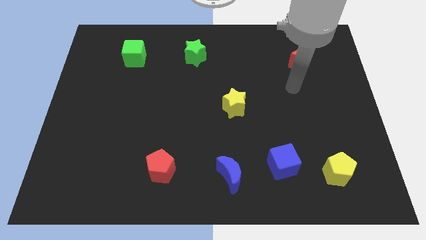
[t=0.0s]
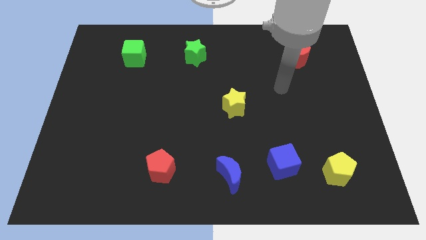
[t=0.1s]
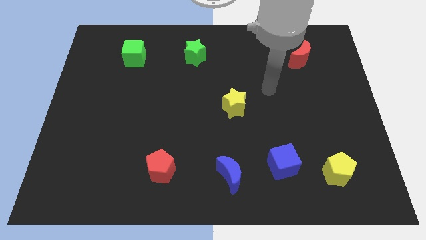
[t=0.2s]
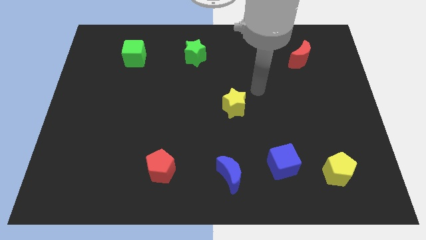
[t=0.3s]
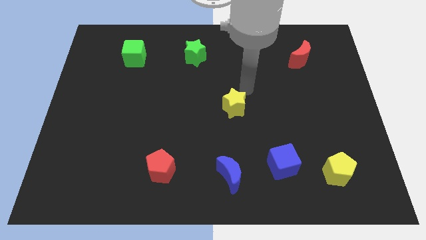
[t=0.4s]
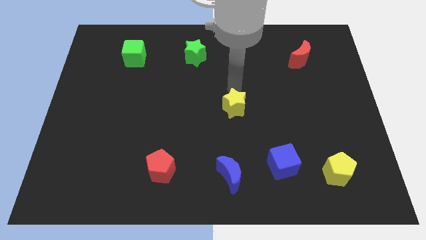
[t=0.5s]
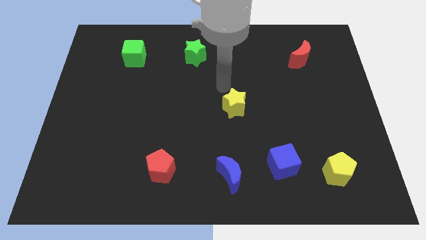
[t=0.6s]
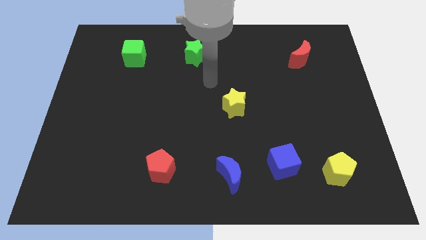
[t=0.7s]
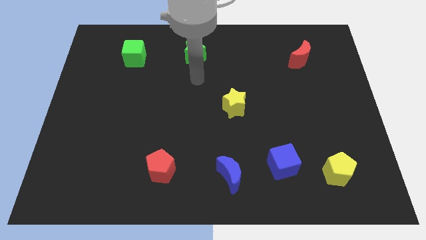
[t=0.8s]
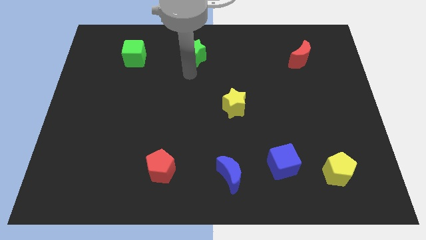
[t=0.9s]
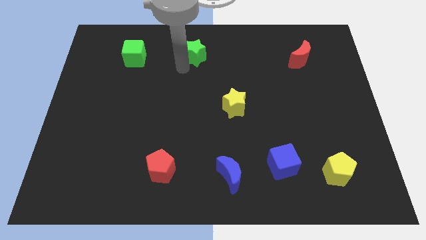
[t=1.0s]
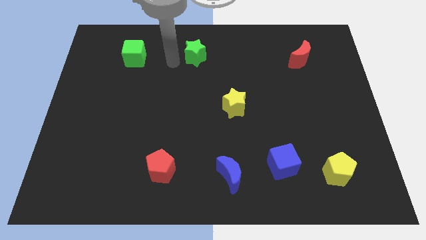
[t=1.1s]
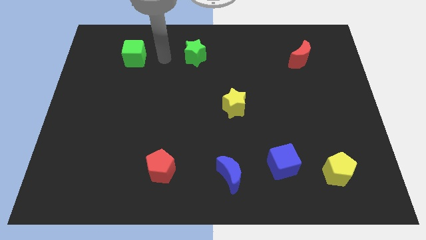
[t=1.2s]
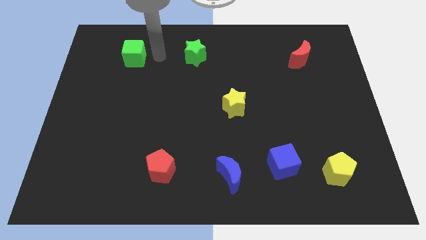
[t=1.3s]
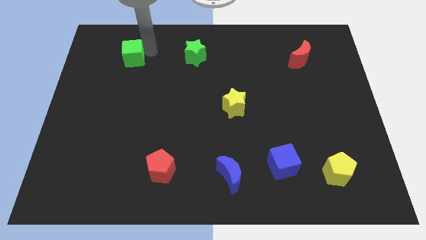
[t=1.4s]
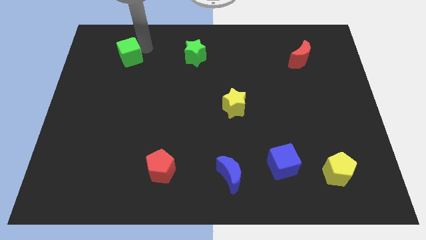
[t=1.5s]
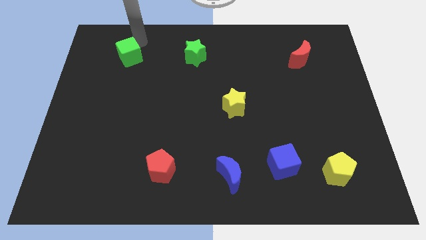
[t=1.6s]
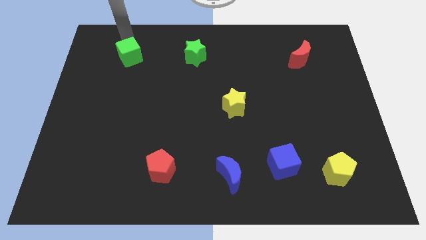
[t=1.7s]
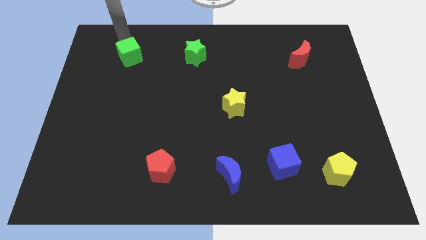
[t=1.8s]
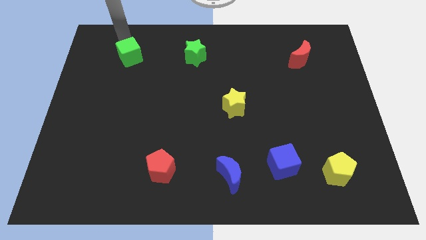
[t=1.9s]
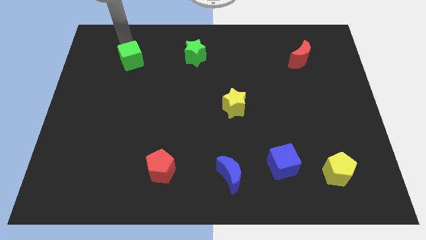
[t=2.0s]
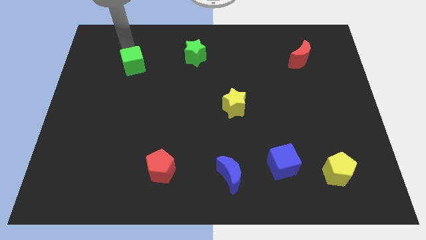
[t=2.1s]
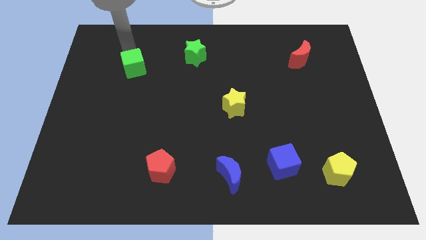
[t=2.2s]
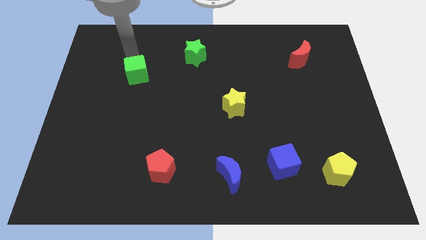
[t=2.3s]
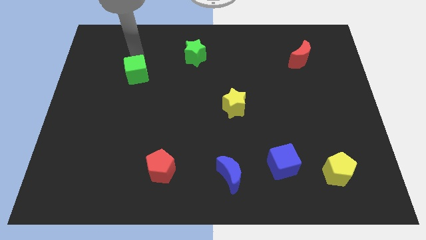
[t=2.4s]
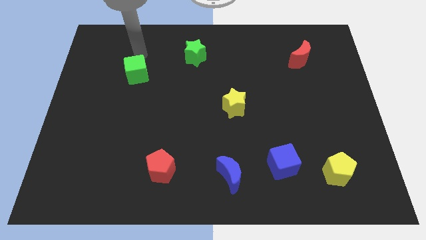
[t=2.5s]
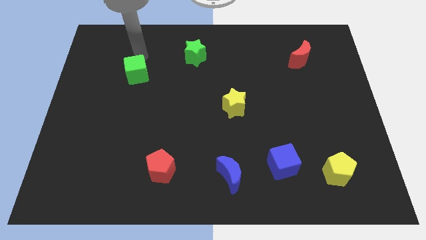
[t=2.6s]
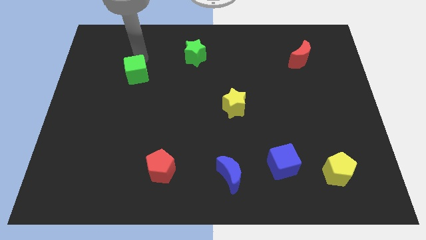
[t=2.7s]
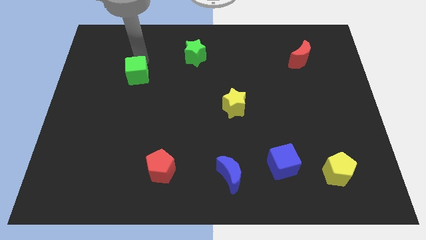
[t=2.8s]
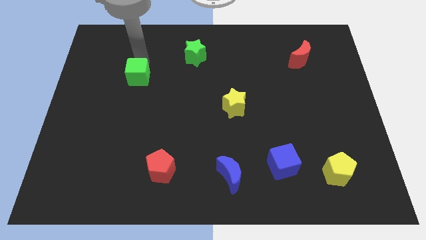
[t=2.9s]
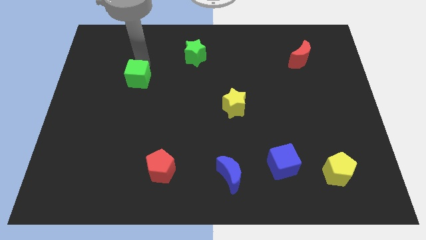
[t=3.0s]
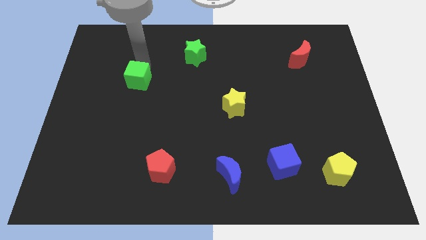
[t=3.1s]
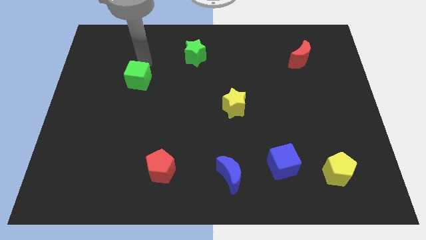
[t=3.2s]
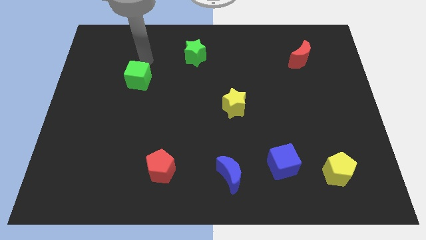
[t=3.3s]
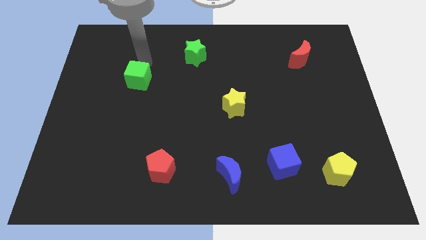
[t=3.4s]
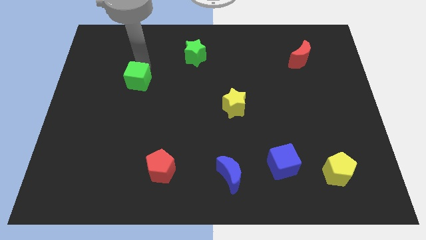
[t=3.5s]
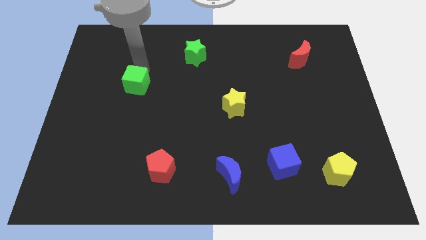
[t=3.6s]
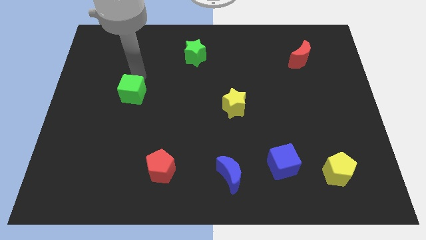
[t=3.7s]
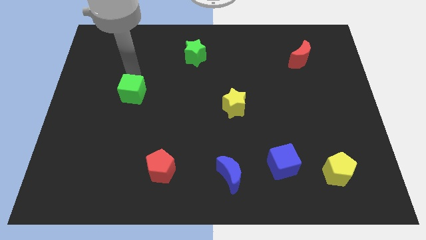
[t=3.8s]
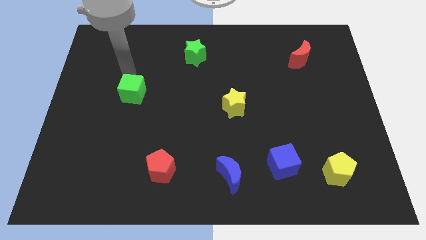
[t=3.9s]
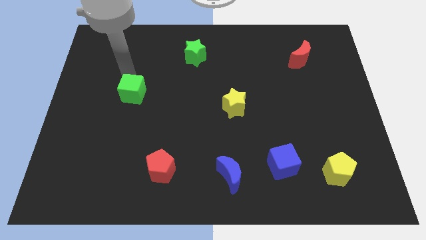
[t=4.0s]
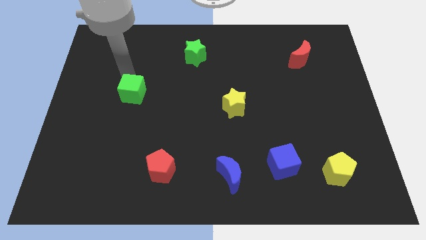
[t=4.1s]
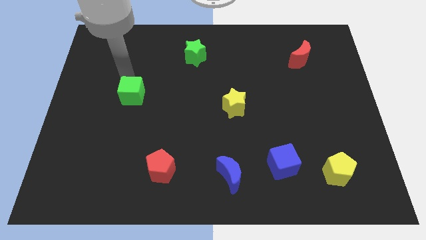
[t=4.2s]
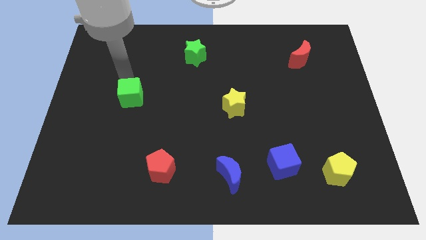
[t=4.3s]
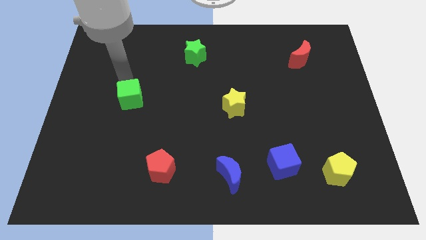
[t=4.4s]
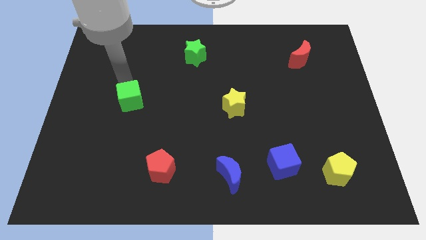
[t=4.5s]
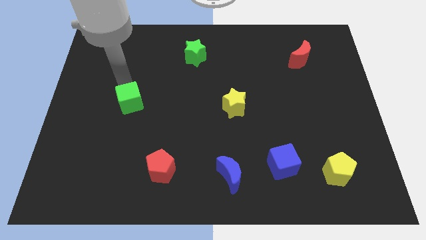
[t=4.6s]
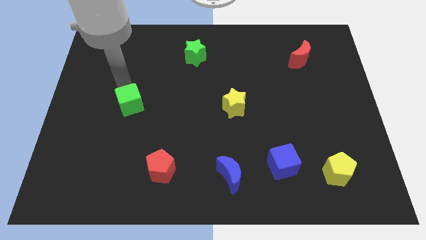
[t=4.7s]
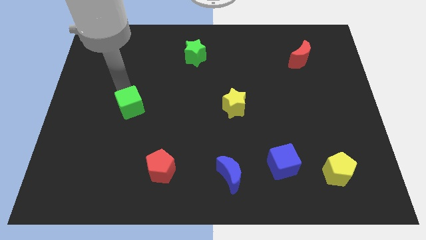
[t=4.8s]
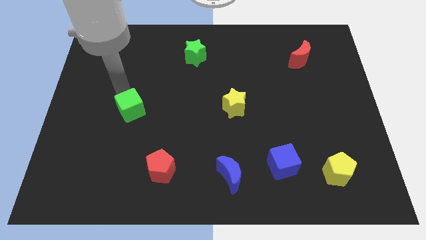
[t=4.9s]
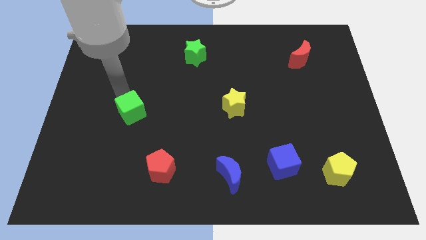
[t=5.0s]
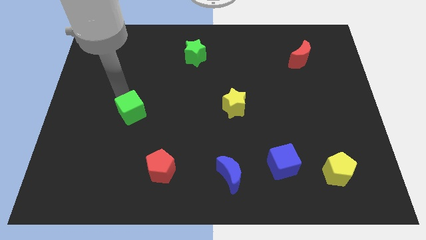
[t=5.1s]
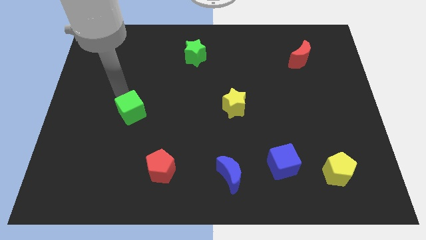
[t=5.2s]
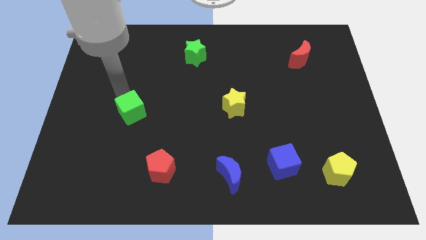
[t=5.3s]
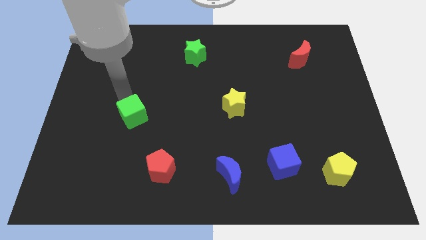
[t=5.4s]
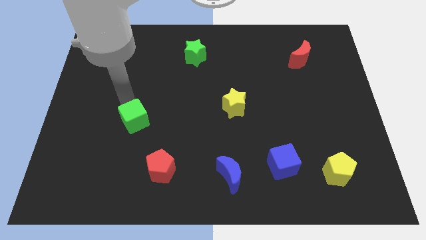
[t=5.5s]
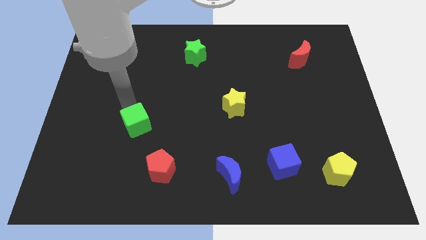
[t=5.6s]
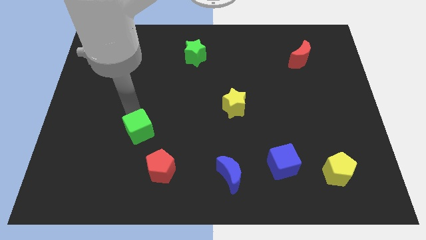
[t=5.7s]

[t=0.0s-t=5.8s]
put the green cube to the top left of the red pentagon

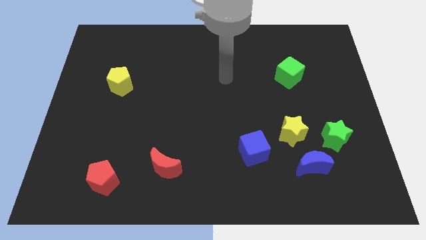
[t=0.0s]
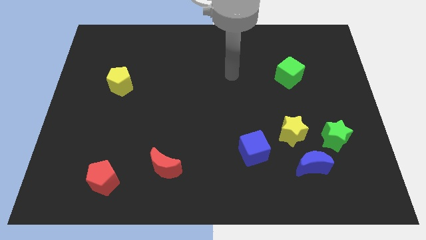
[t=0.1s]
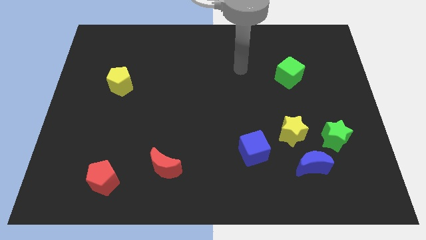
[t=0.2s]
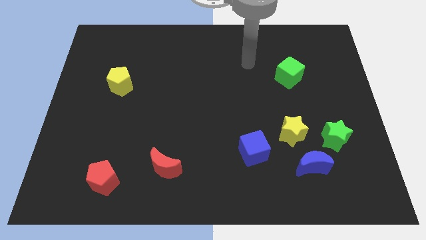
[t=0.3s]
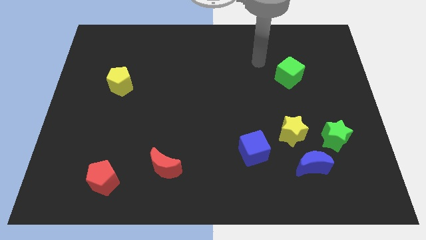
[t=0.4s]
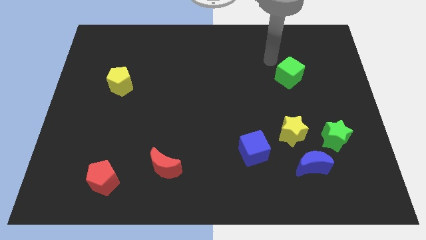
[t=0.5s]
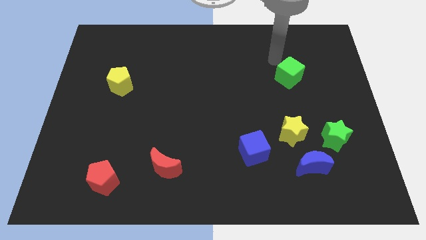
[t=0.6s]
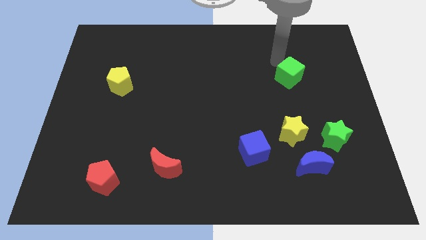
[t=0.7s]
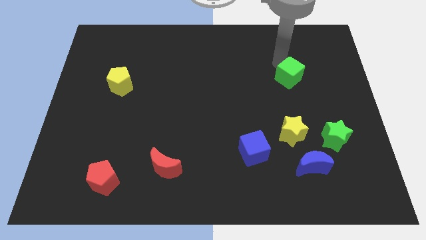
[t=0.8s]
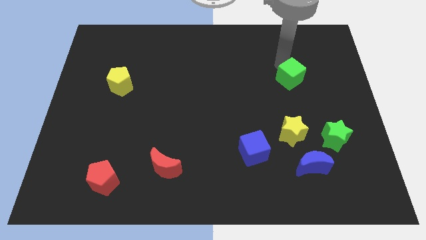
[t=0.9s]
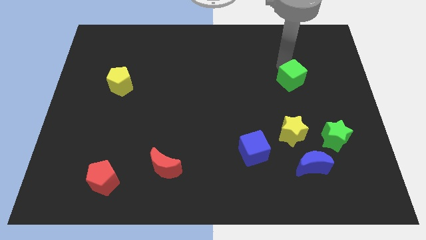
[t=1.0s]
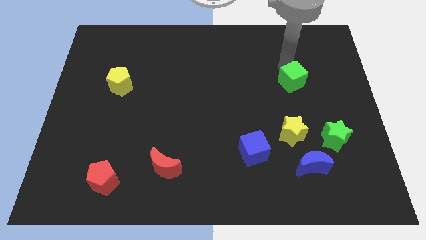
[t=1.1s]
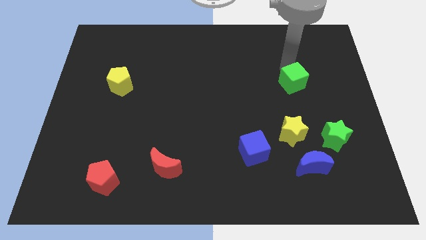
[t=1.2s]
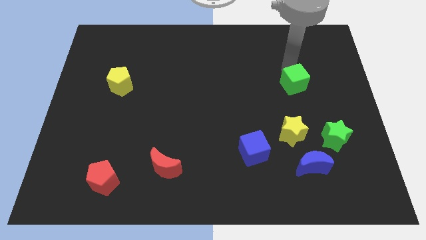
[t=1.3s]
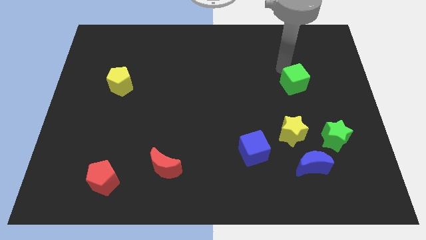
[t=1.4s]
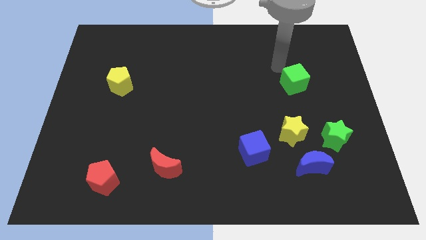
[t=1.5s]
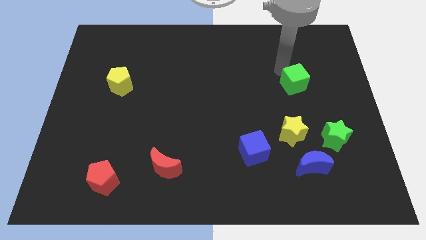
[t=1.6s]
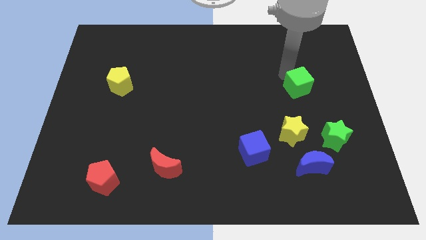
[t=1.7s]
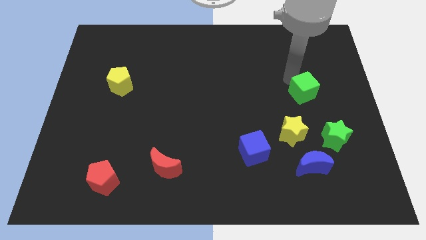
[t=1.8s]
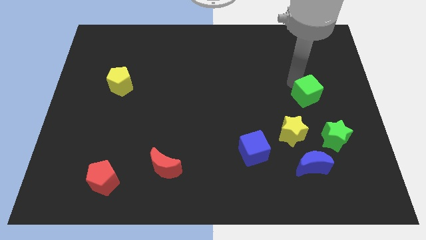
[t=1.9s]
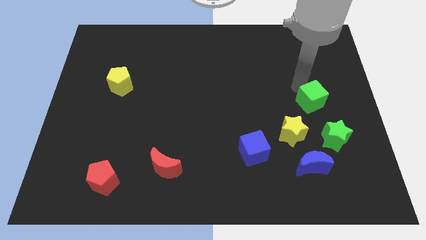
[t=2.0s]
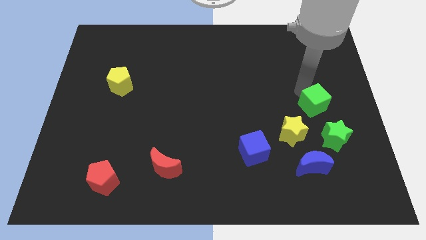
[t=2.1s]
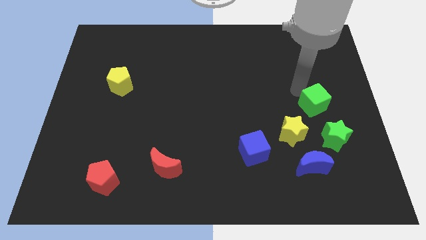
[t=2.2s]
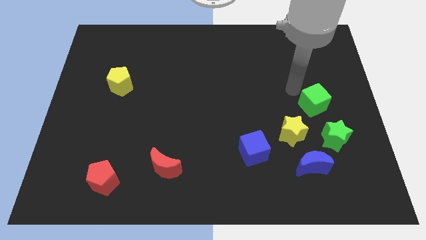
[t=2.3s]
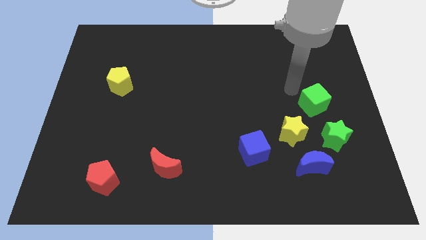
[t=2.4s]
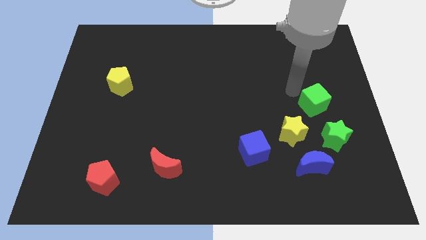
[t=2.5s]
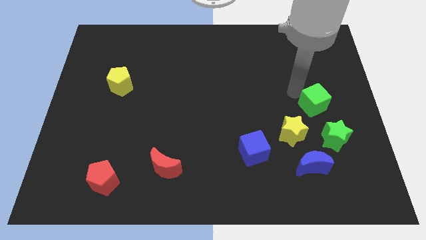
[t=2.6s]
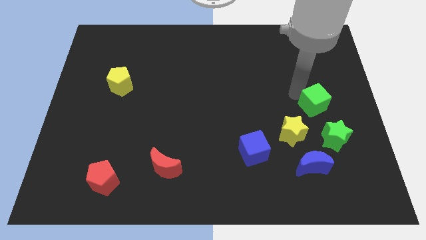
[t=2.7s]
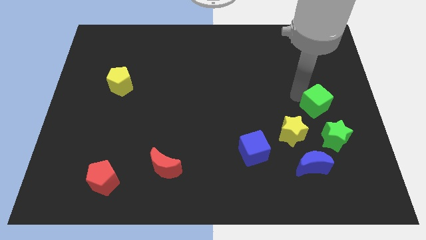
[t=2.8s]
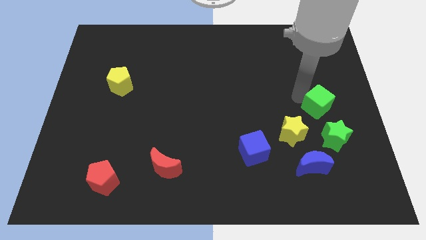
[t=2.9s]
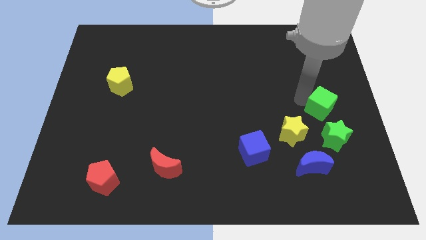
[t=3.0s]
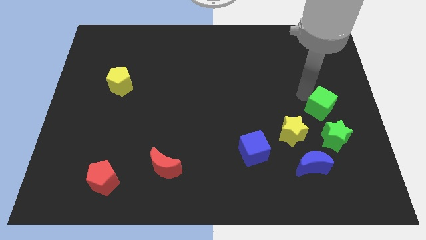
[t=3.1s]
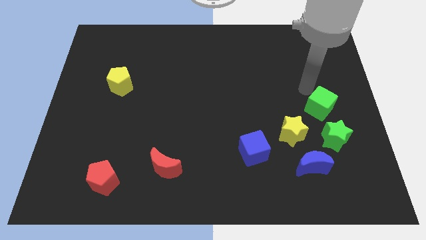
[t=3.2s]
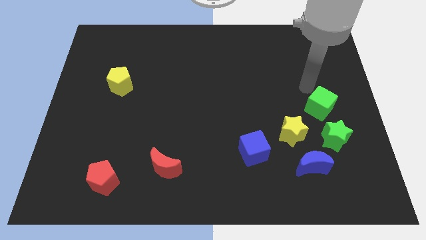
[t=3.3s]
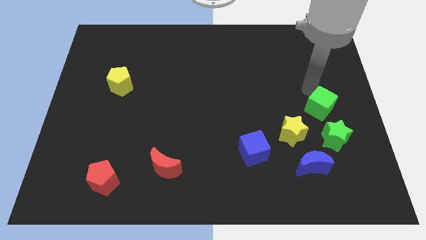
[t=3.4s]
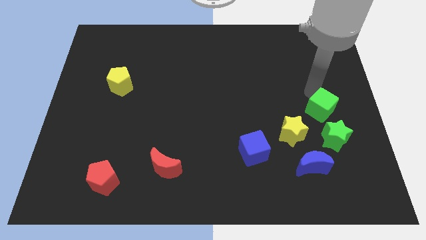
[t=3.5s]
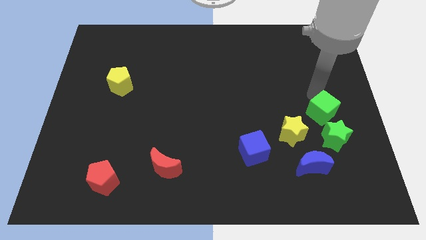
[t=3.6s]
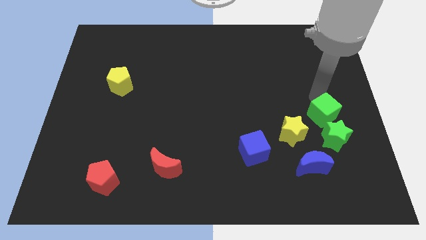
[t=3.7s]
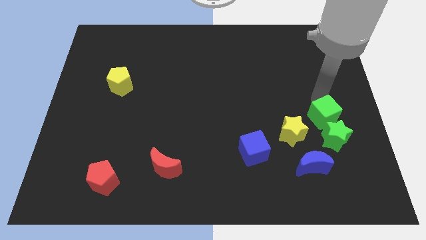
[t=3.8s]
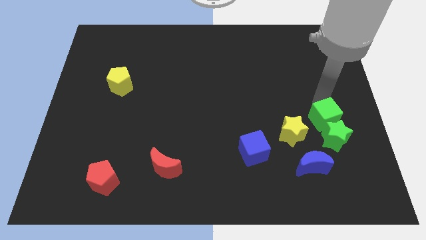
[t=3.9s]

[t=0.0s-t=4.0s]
put the green cube to the right side of the yellow star
